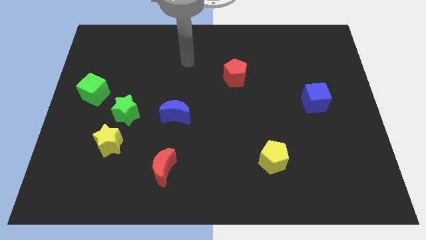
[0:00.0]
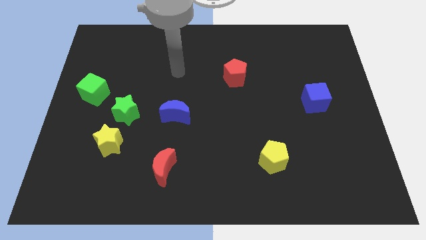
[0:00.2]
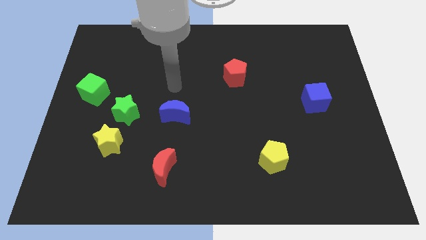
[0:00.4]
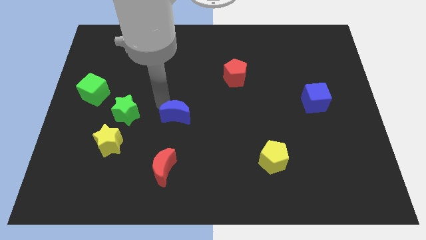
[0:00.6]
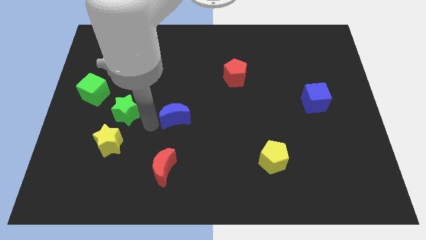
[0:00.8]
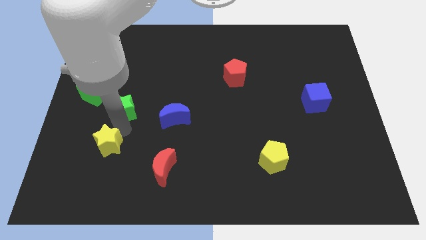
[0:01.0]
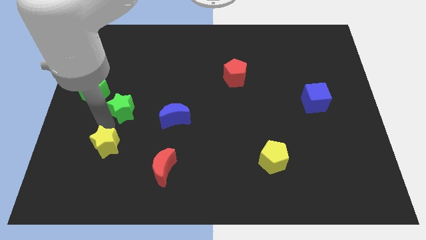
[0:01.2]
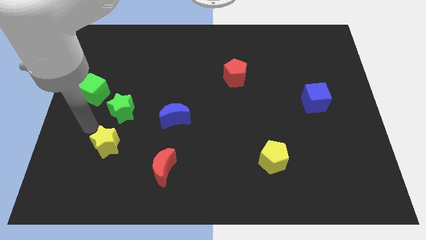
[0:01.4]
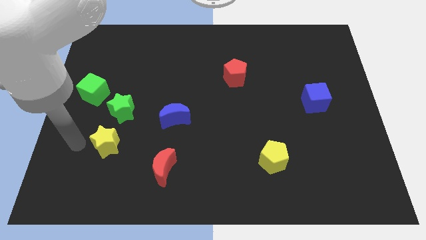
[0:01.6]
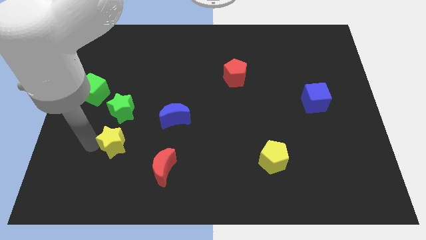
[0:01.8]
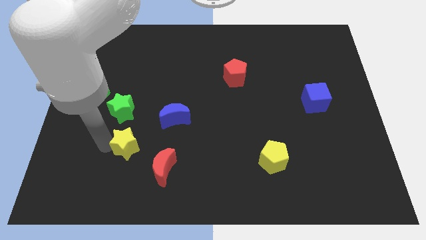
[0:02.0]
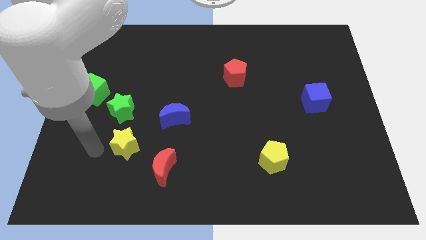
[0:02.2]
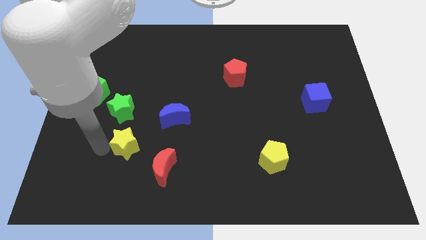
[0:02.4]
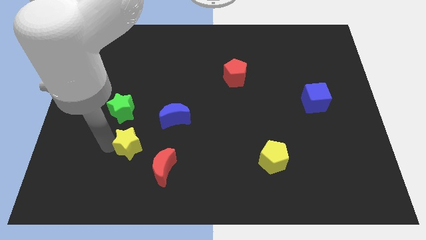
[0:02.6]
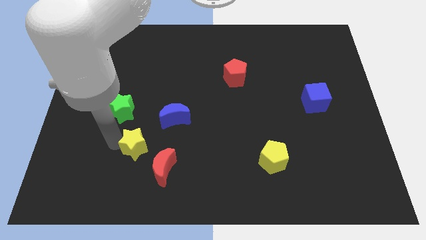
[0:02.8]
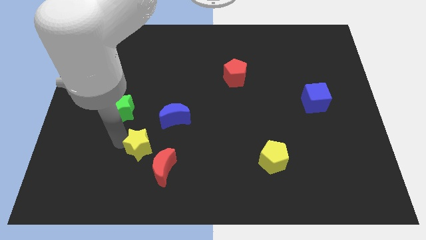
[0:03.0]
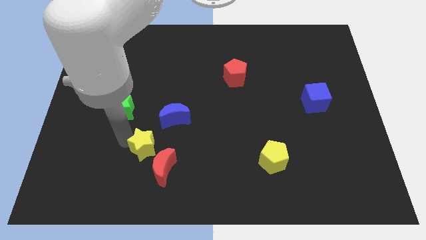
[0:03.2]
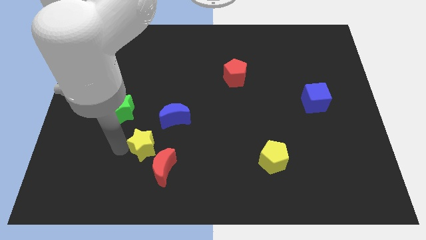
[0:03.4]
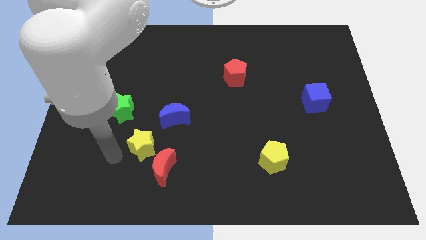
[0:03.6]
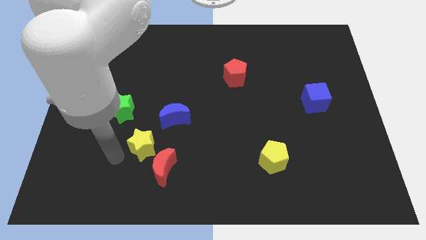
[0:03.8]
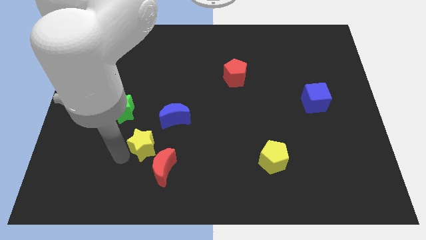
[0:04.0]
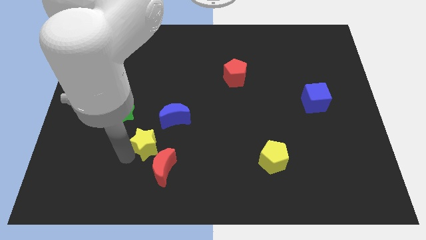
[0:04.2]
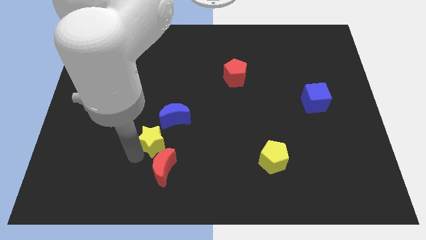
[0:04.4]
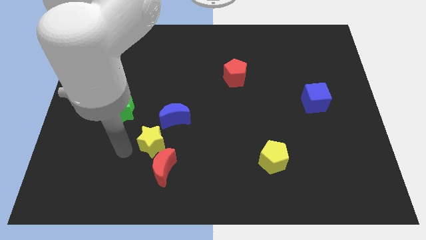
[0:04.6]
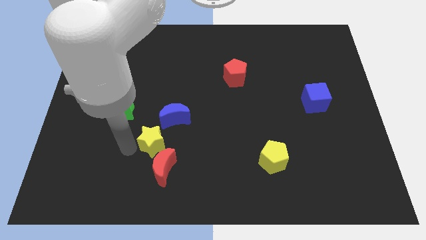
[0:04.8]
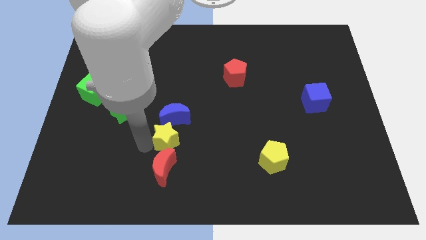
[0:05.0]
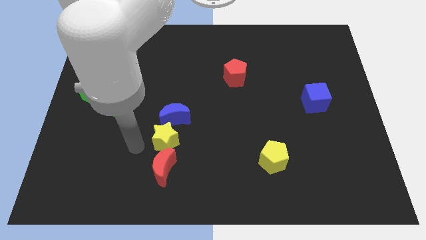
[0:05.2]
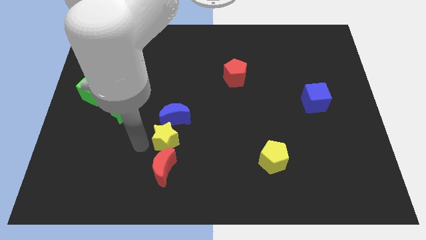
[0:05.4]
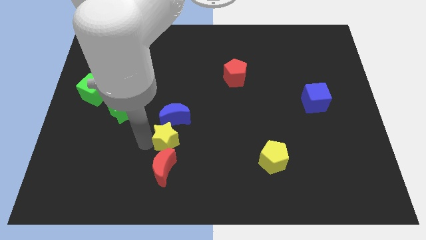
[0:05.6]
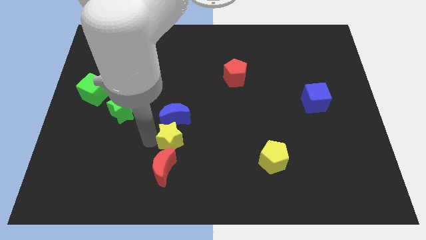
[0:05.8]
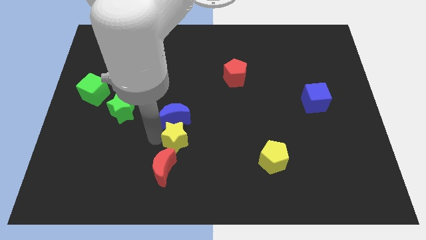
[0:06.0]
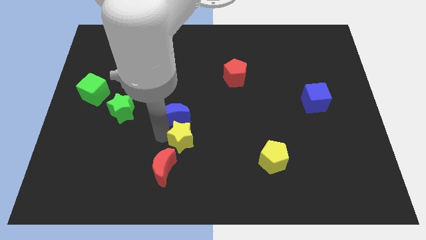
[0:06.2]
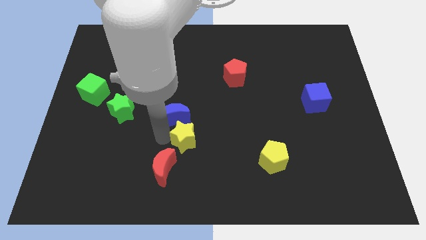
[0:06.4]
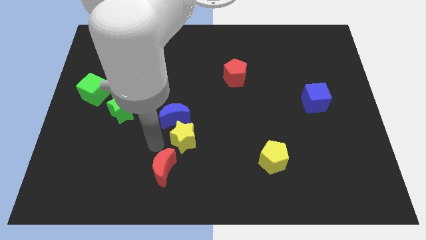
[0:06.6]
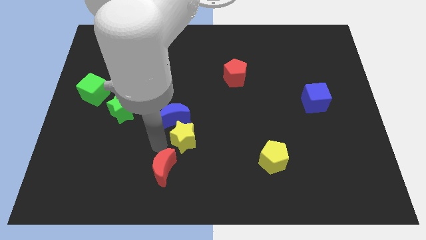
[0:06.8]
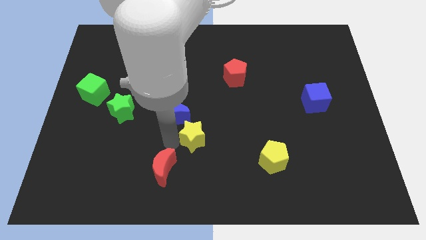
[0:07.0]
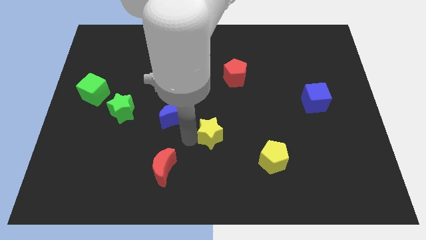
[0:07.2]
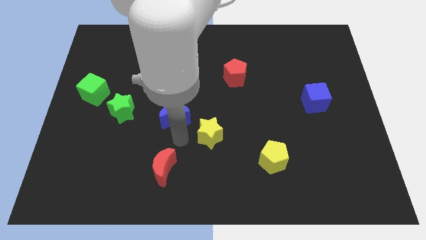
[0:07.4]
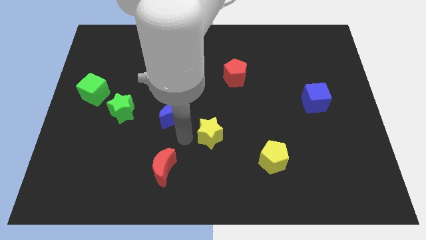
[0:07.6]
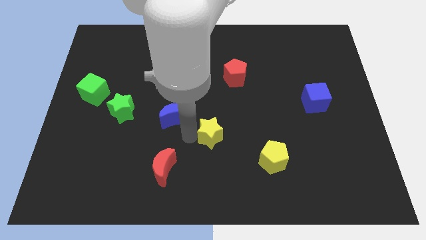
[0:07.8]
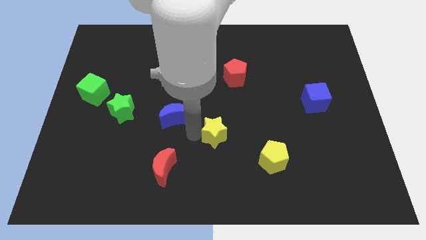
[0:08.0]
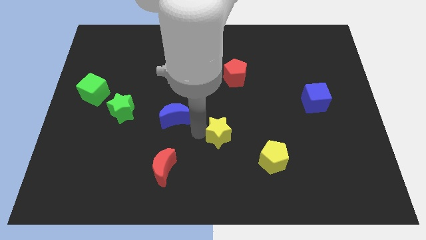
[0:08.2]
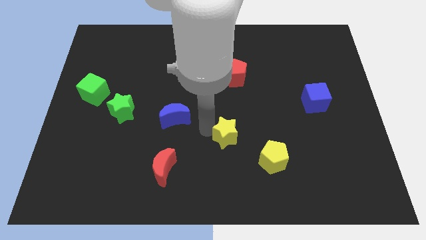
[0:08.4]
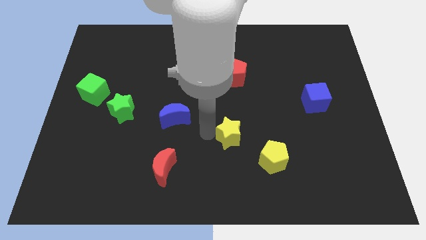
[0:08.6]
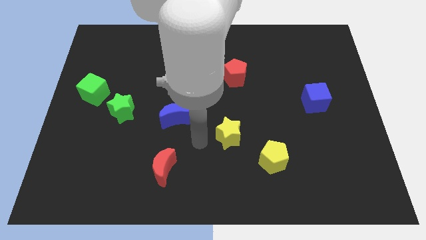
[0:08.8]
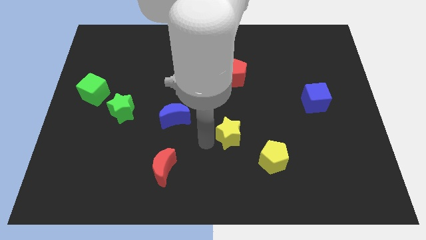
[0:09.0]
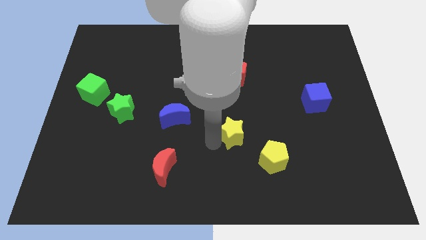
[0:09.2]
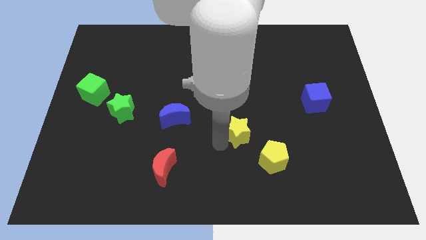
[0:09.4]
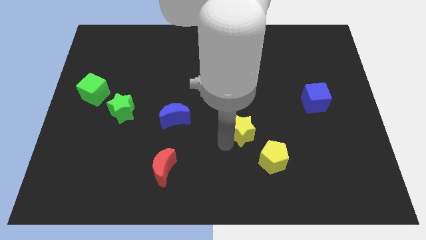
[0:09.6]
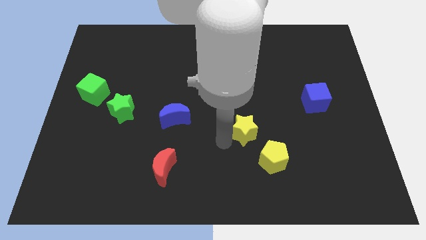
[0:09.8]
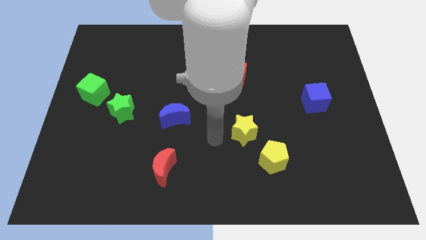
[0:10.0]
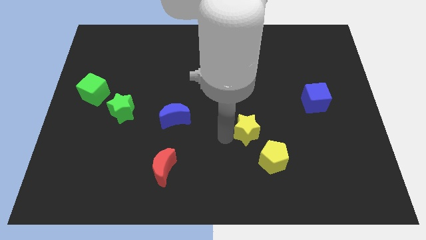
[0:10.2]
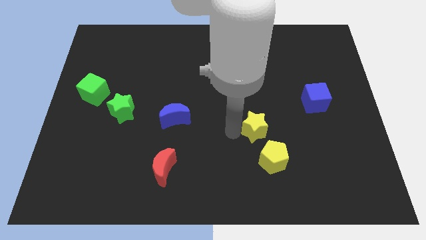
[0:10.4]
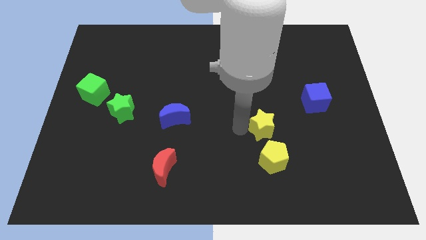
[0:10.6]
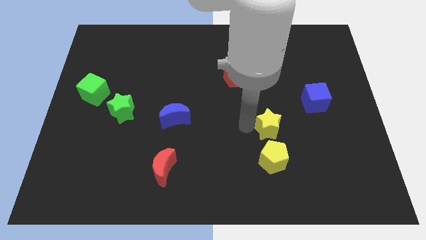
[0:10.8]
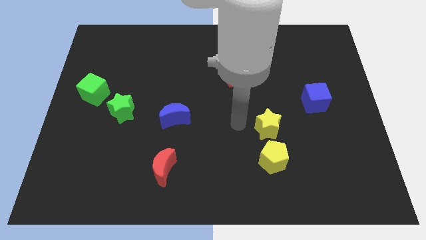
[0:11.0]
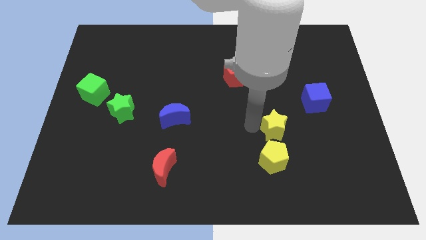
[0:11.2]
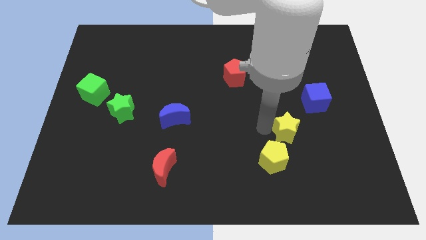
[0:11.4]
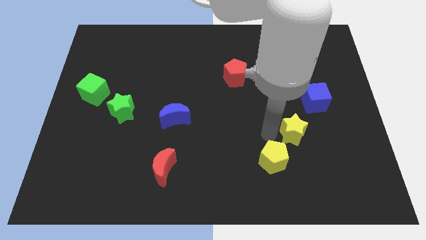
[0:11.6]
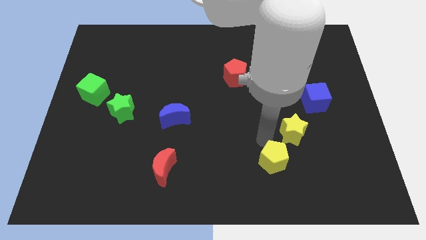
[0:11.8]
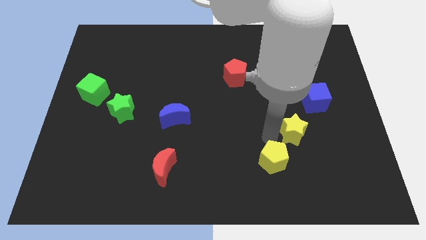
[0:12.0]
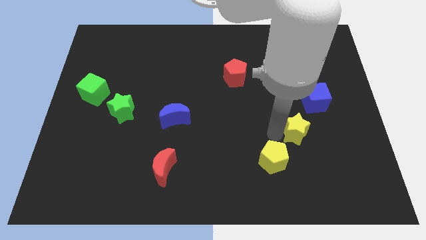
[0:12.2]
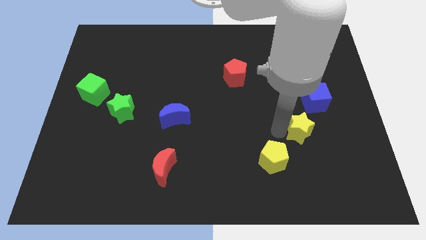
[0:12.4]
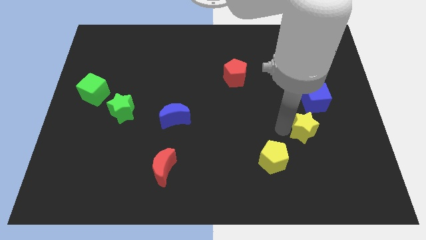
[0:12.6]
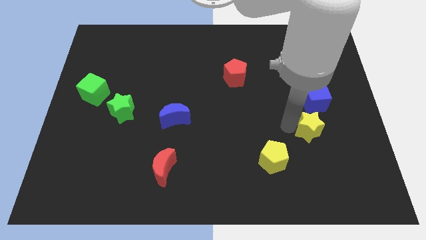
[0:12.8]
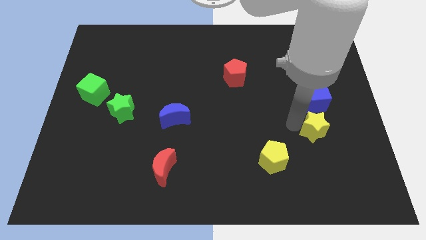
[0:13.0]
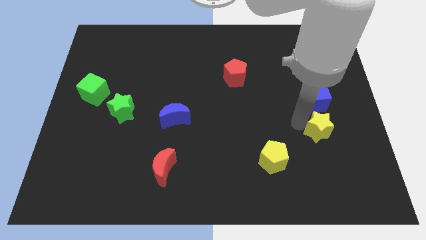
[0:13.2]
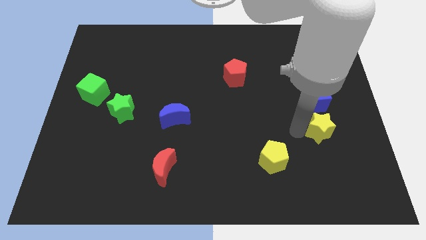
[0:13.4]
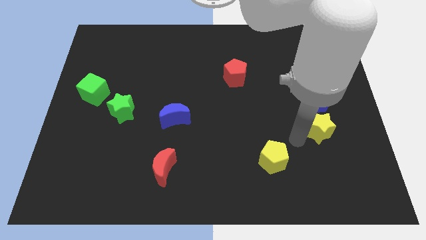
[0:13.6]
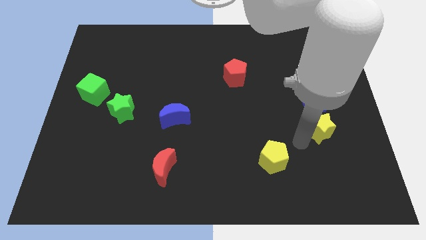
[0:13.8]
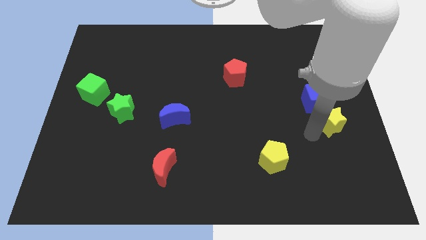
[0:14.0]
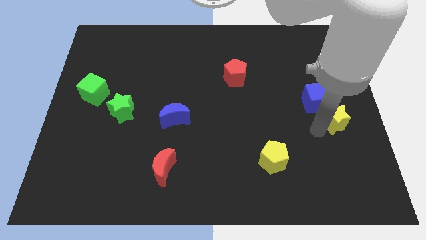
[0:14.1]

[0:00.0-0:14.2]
slide the yellow star to the right side of the board
